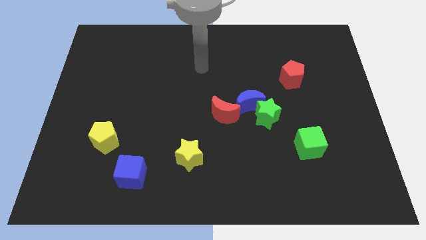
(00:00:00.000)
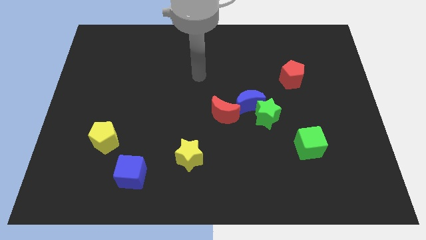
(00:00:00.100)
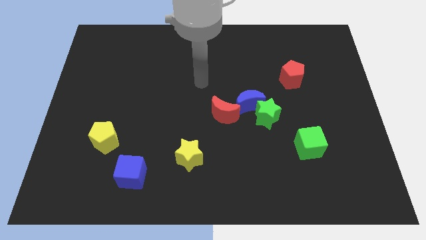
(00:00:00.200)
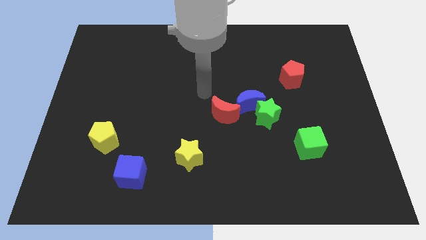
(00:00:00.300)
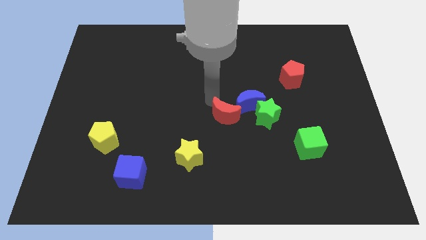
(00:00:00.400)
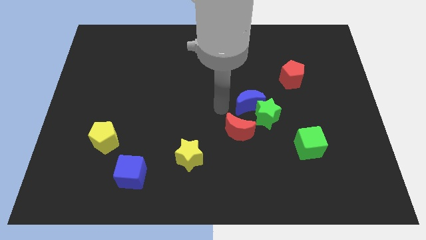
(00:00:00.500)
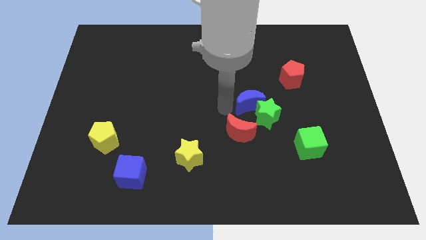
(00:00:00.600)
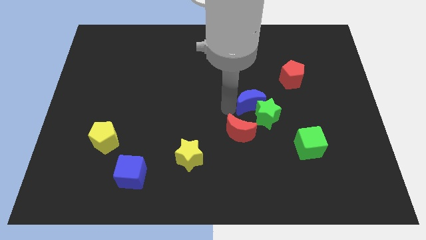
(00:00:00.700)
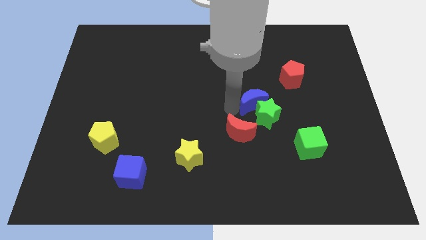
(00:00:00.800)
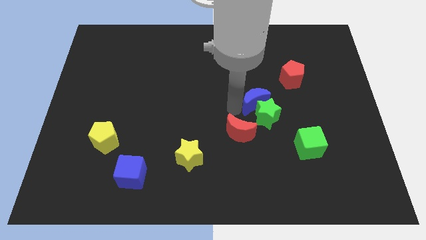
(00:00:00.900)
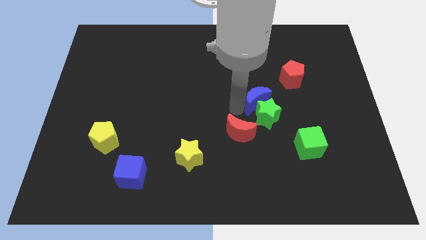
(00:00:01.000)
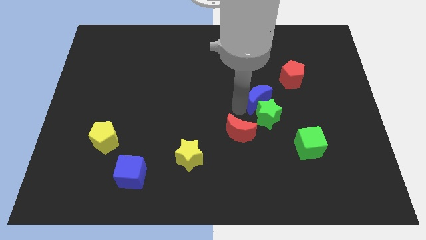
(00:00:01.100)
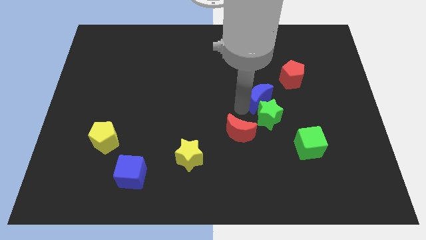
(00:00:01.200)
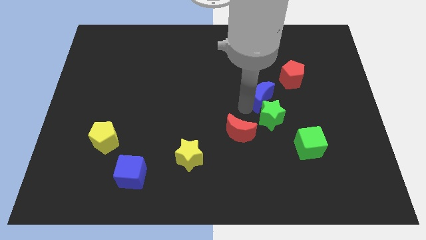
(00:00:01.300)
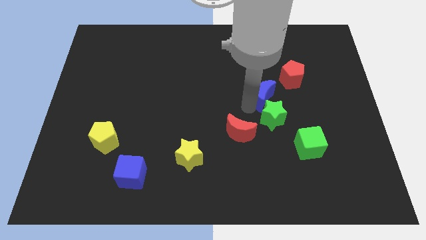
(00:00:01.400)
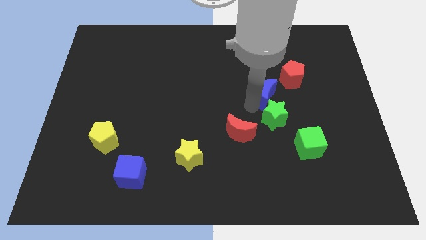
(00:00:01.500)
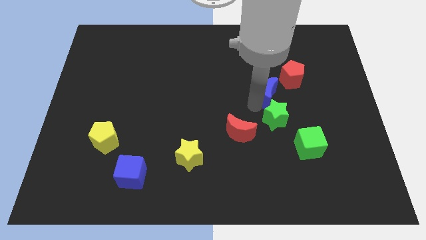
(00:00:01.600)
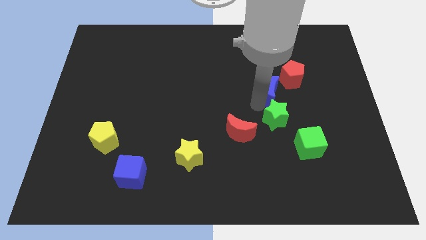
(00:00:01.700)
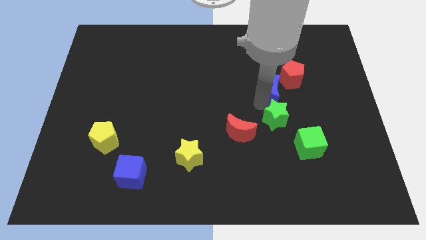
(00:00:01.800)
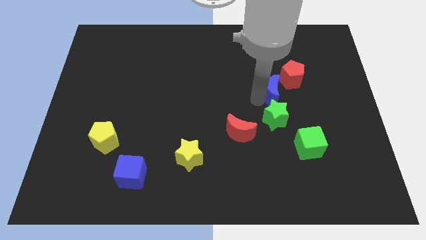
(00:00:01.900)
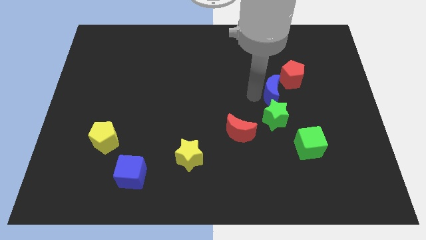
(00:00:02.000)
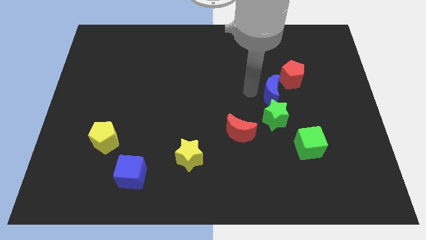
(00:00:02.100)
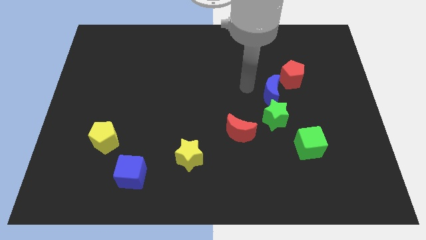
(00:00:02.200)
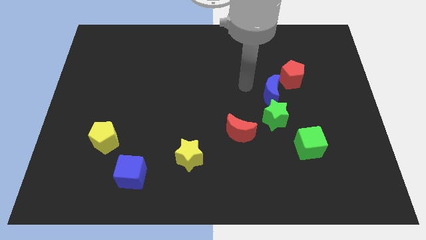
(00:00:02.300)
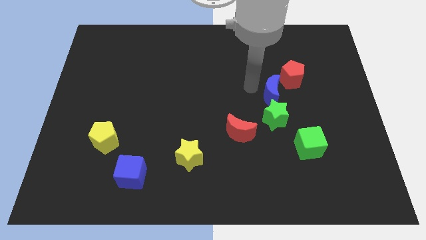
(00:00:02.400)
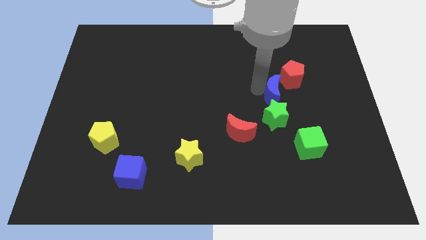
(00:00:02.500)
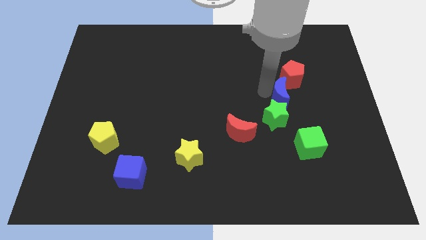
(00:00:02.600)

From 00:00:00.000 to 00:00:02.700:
slightly move the blue moon right

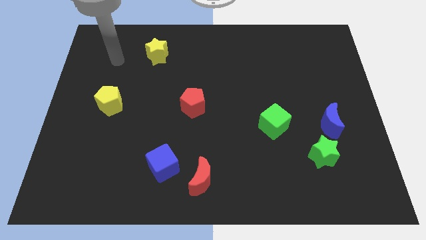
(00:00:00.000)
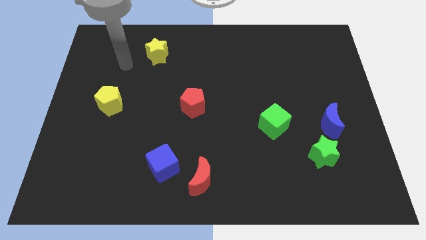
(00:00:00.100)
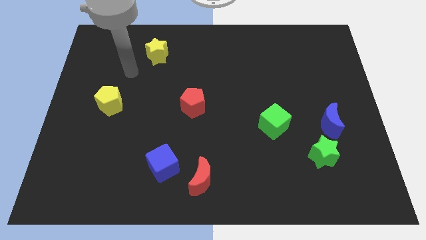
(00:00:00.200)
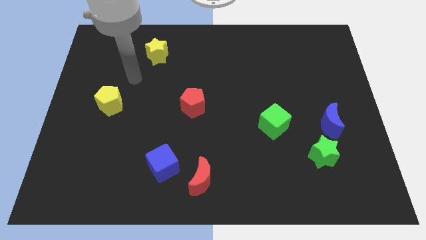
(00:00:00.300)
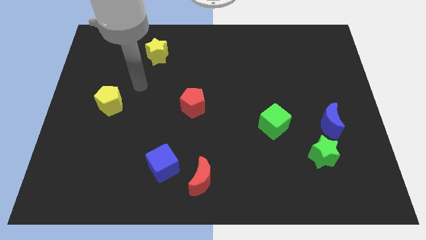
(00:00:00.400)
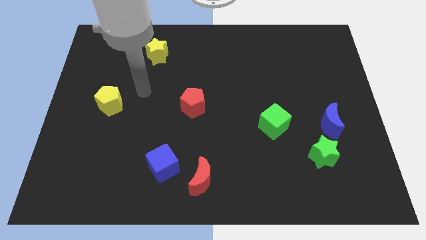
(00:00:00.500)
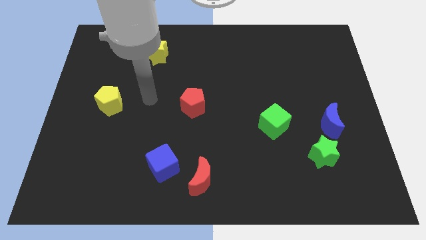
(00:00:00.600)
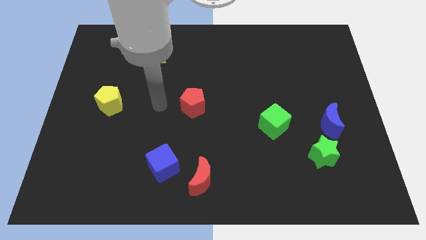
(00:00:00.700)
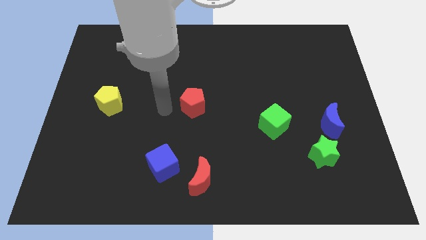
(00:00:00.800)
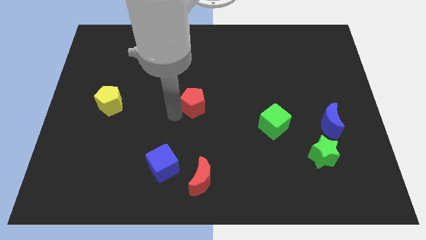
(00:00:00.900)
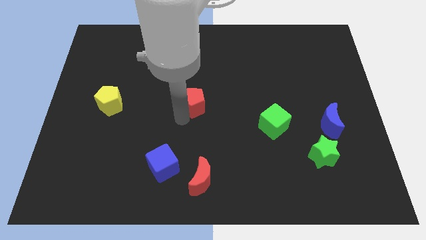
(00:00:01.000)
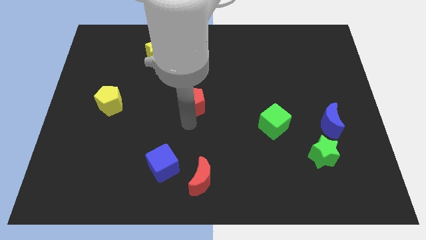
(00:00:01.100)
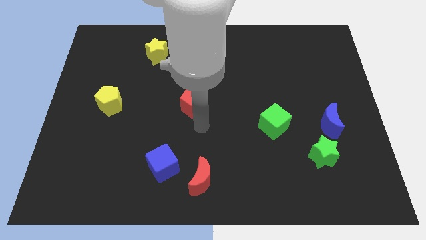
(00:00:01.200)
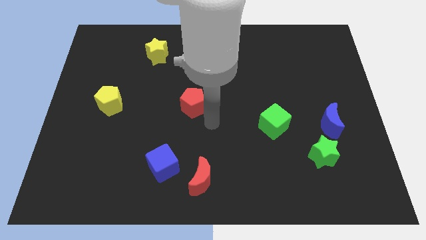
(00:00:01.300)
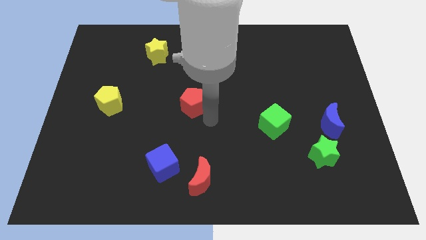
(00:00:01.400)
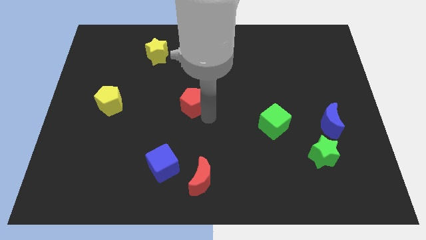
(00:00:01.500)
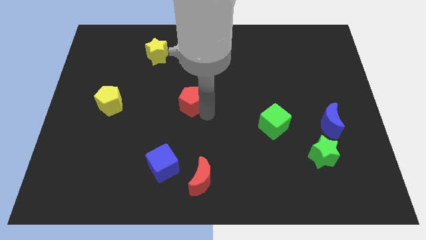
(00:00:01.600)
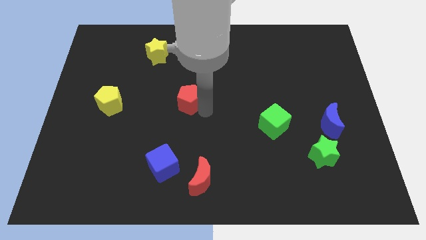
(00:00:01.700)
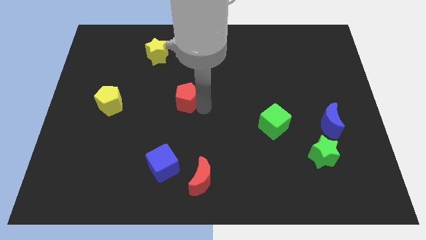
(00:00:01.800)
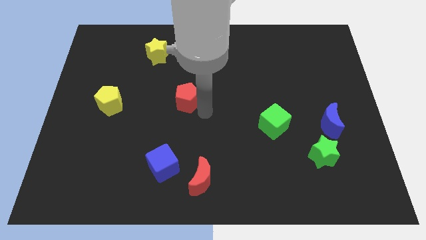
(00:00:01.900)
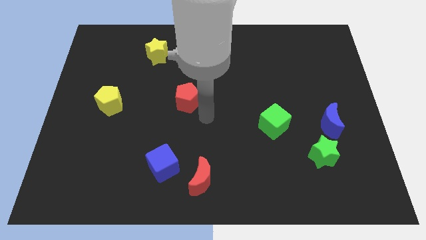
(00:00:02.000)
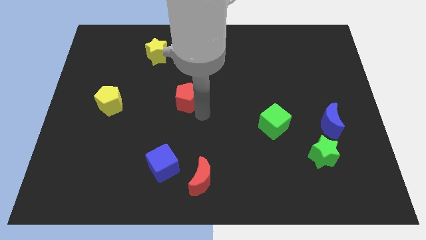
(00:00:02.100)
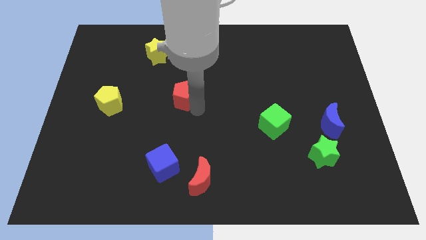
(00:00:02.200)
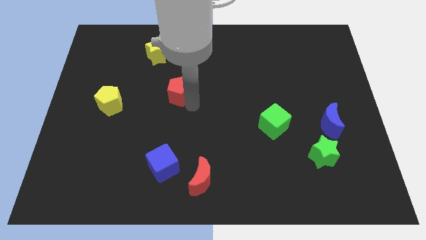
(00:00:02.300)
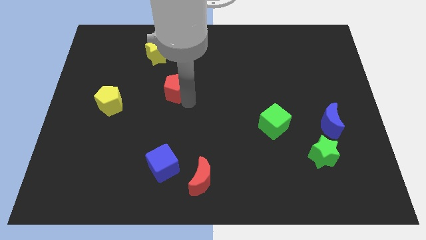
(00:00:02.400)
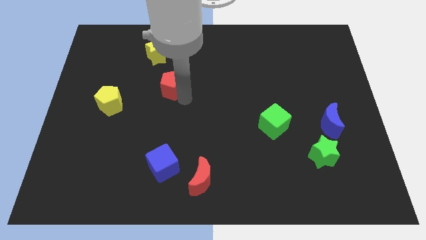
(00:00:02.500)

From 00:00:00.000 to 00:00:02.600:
slightly push the red pentagon up and to the left

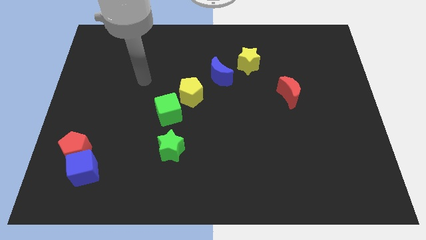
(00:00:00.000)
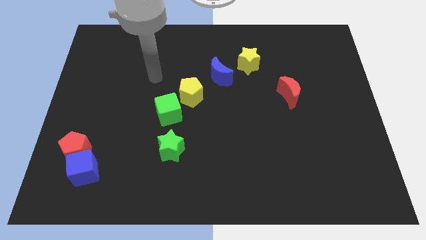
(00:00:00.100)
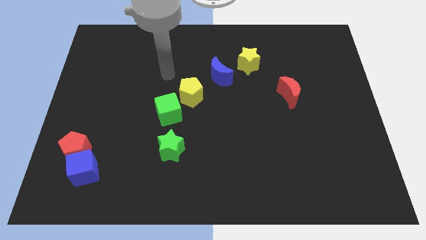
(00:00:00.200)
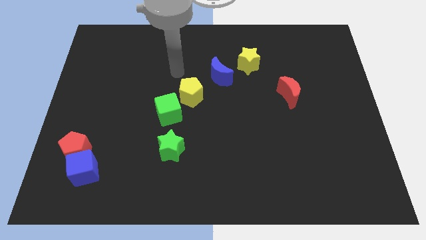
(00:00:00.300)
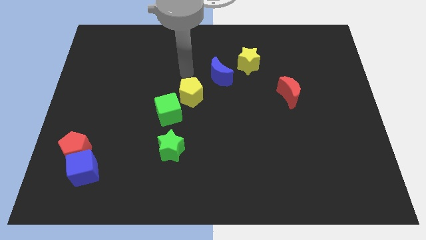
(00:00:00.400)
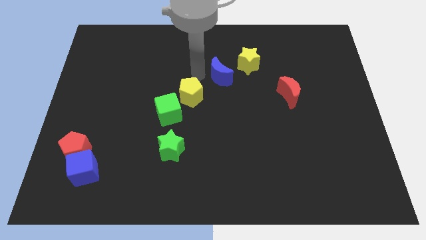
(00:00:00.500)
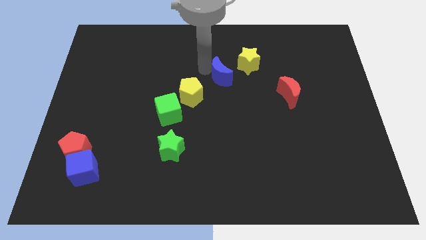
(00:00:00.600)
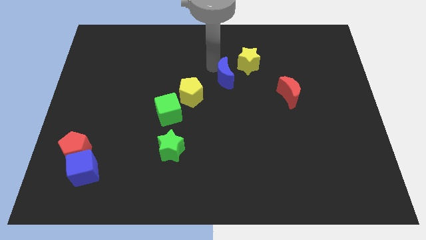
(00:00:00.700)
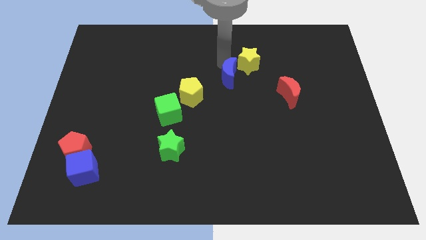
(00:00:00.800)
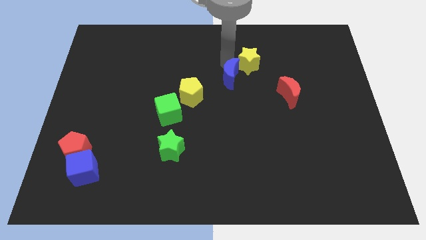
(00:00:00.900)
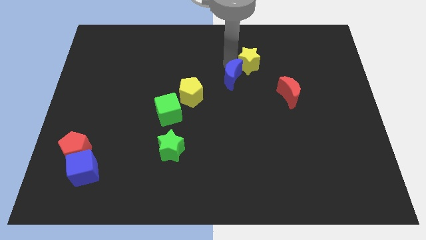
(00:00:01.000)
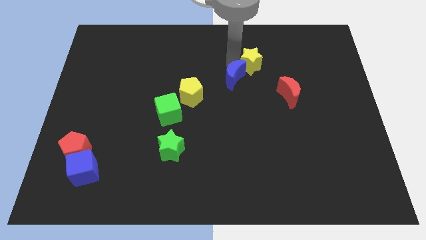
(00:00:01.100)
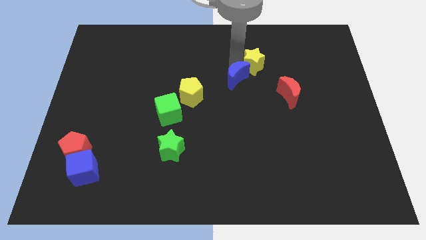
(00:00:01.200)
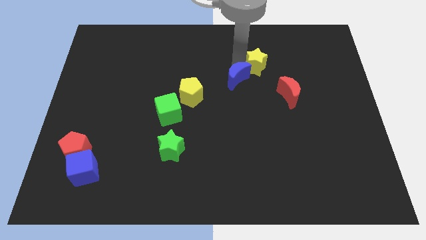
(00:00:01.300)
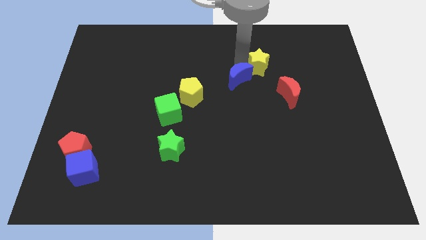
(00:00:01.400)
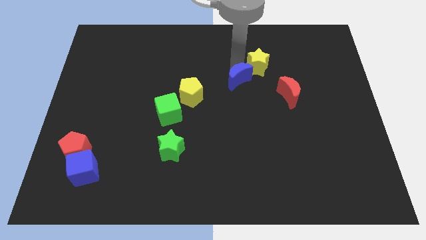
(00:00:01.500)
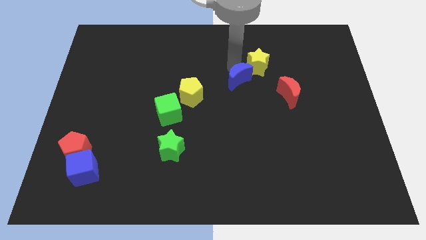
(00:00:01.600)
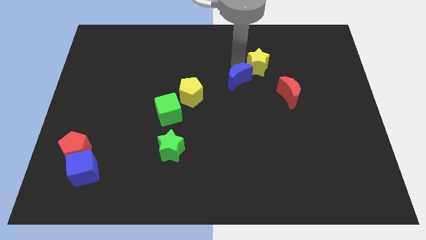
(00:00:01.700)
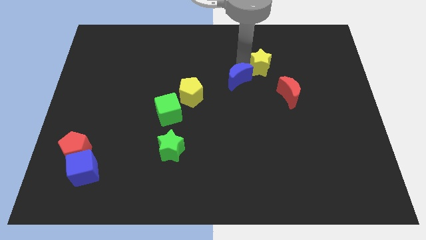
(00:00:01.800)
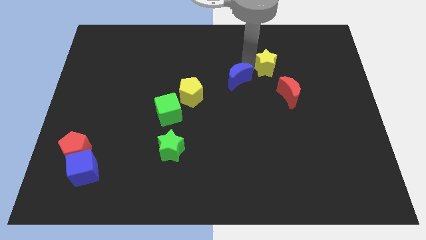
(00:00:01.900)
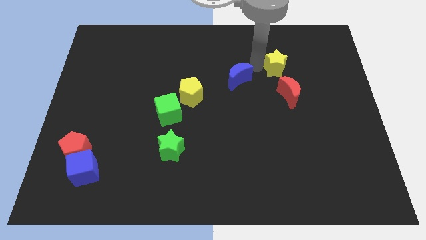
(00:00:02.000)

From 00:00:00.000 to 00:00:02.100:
slightly push the yellow star right

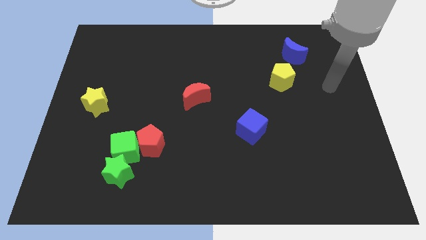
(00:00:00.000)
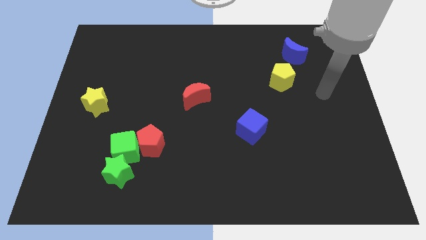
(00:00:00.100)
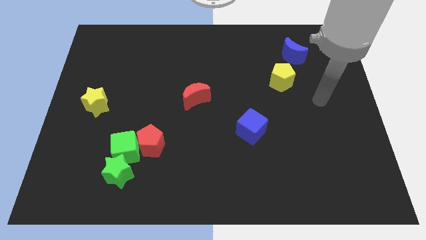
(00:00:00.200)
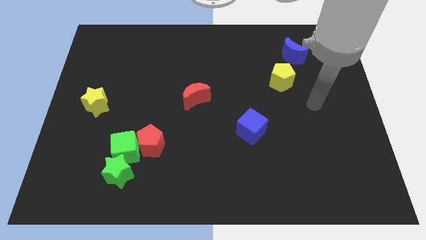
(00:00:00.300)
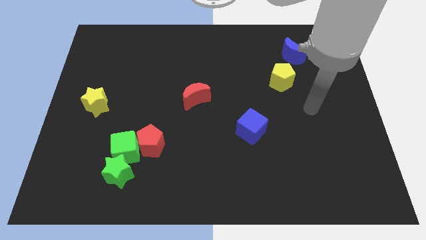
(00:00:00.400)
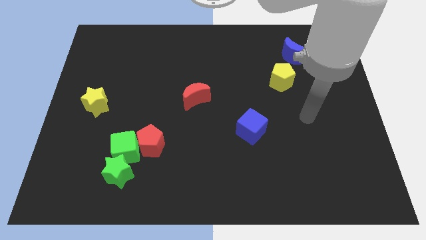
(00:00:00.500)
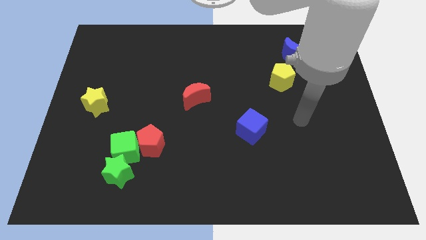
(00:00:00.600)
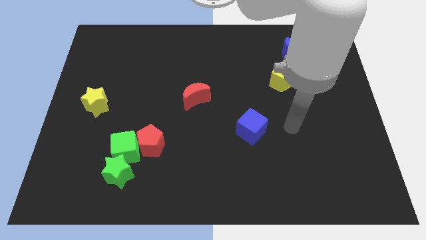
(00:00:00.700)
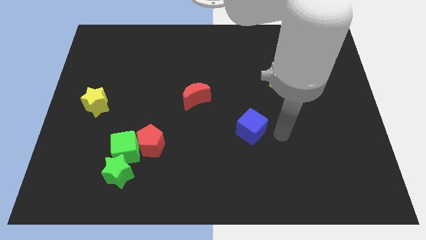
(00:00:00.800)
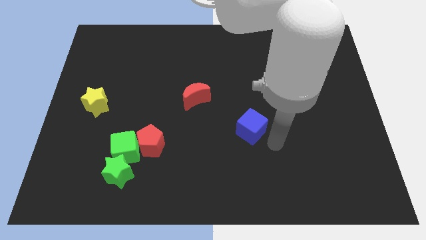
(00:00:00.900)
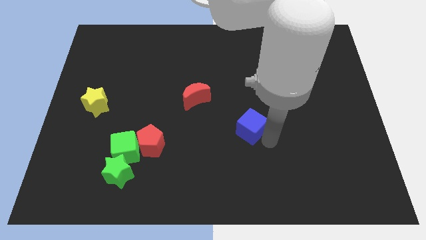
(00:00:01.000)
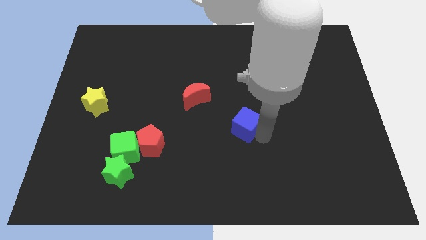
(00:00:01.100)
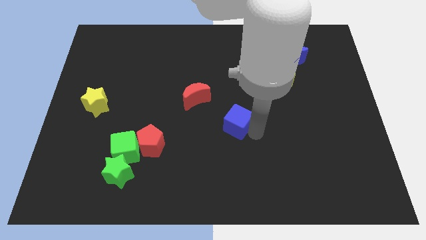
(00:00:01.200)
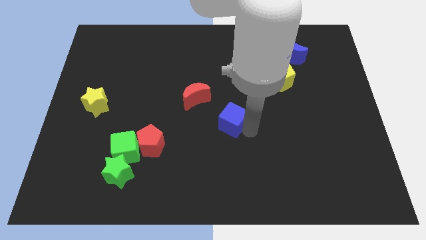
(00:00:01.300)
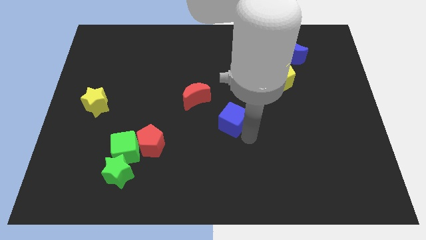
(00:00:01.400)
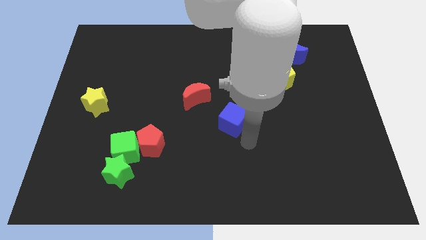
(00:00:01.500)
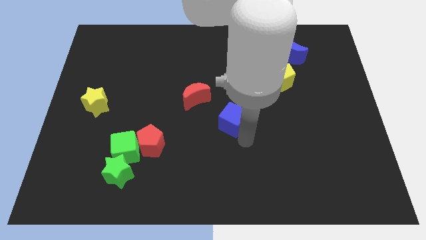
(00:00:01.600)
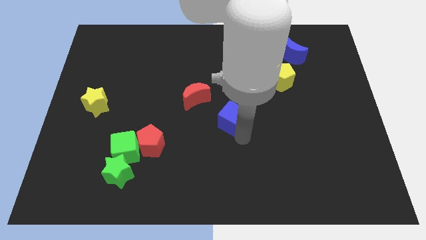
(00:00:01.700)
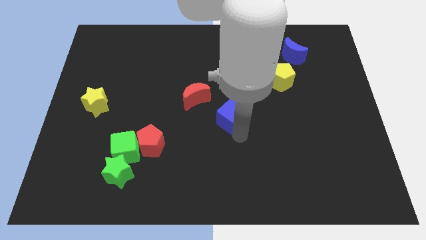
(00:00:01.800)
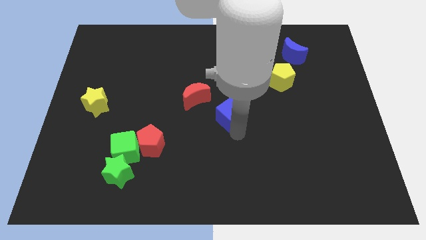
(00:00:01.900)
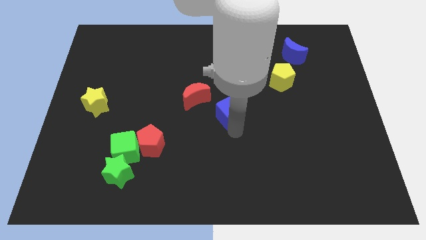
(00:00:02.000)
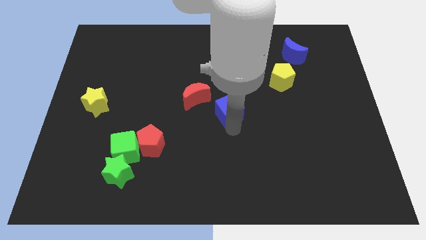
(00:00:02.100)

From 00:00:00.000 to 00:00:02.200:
slightly slide the blue cube up and left
